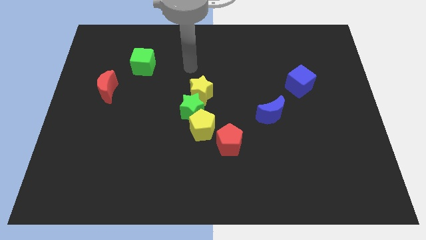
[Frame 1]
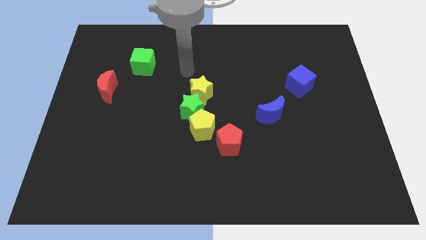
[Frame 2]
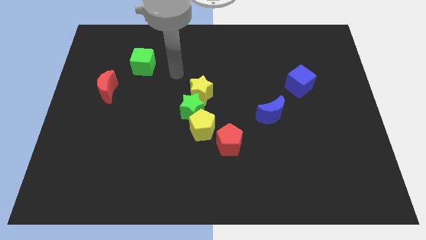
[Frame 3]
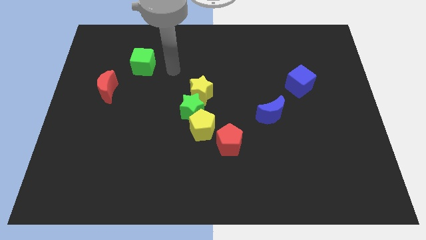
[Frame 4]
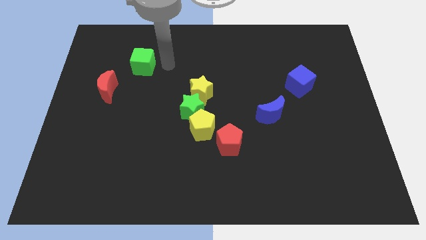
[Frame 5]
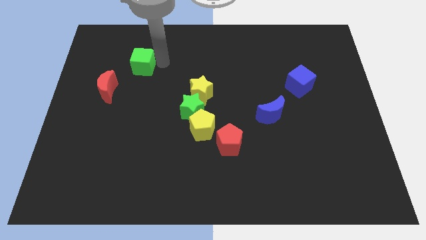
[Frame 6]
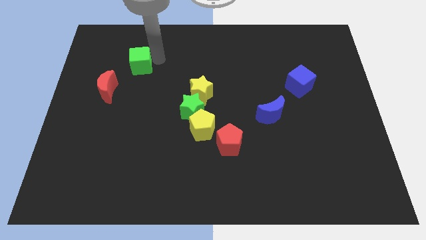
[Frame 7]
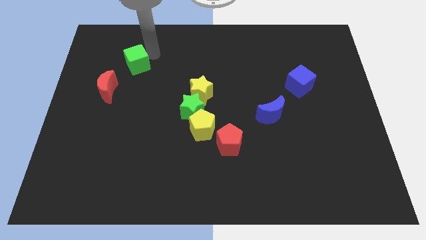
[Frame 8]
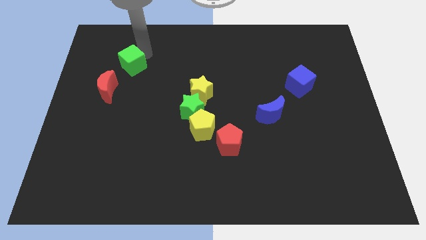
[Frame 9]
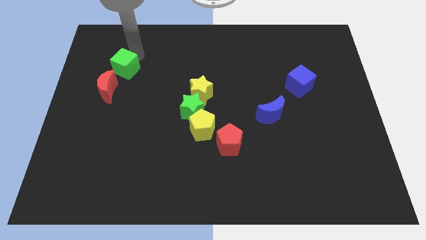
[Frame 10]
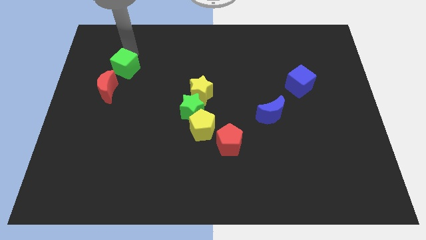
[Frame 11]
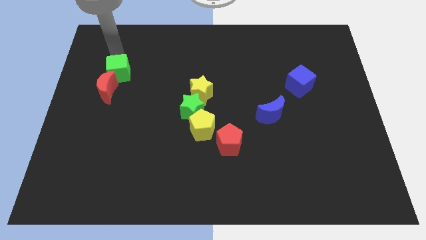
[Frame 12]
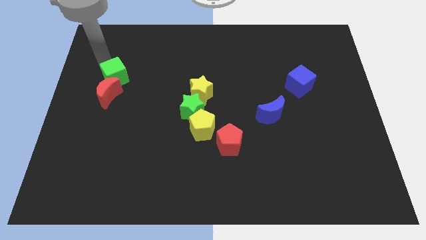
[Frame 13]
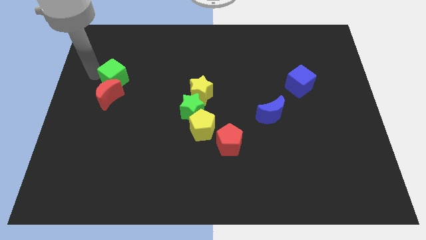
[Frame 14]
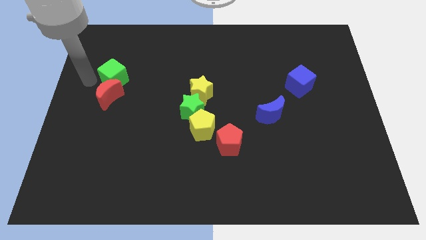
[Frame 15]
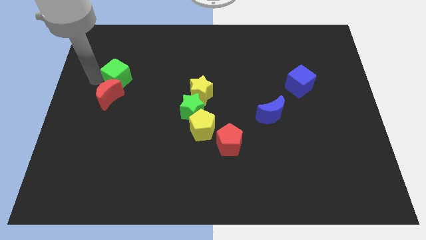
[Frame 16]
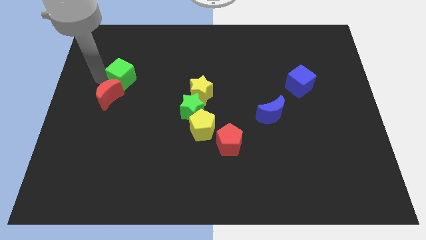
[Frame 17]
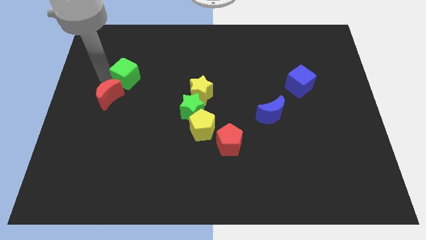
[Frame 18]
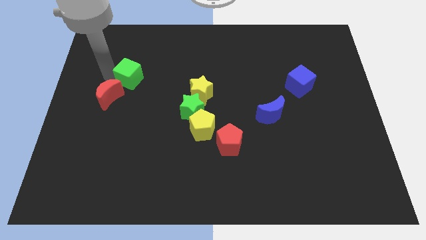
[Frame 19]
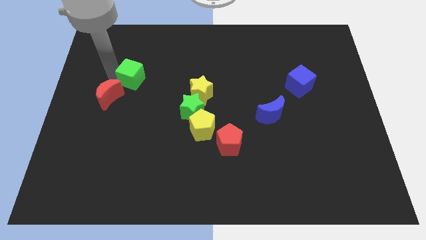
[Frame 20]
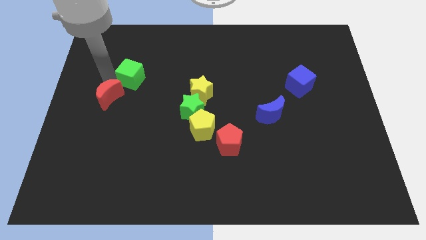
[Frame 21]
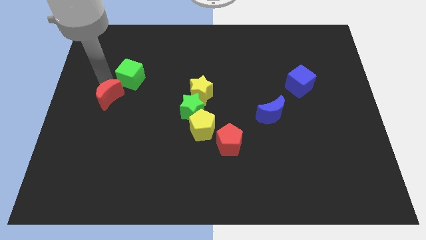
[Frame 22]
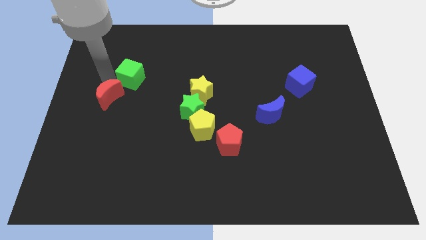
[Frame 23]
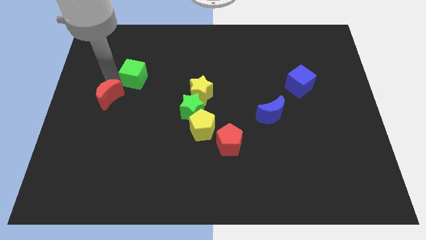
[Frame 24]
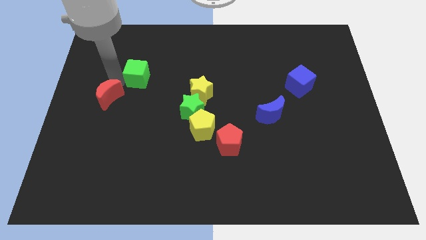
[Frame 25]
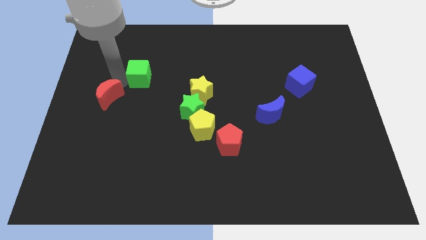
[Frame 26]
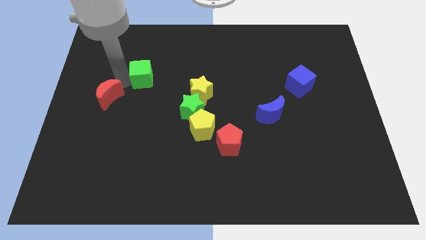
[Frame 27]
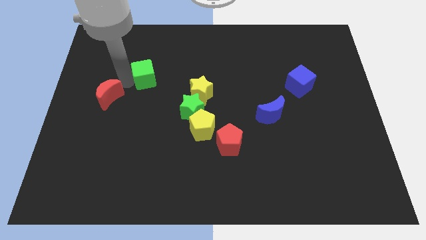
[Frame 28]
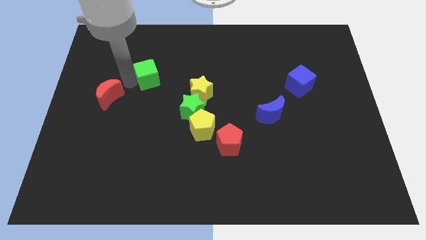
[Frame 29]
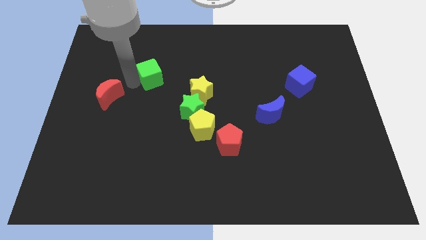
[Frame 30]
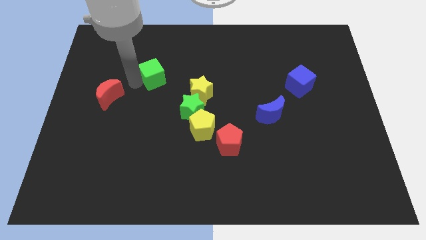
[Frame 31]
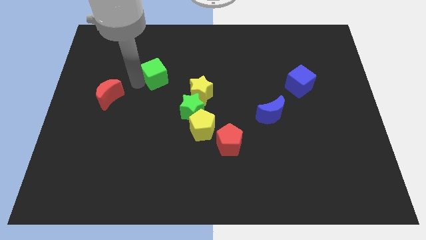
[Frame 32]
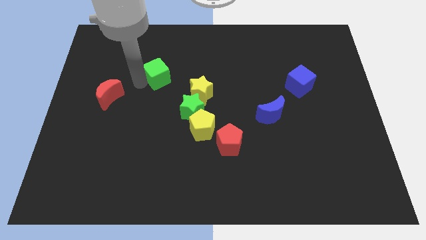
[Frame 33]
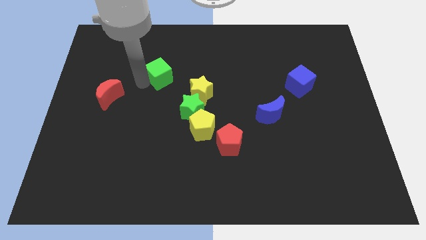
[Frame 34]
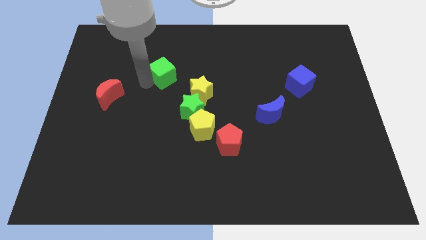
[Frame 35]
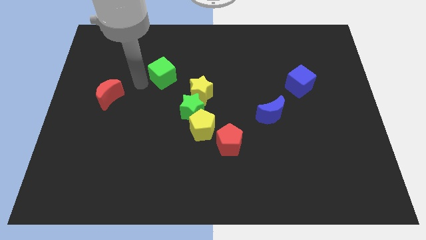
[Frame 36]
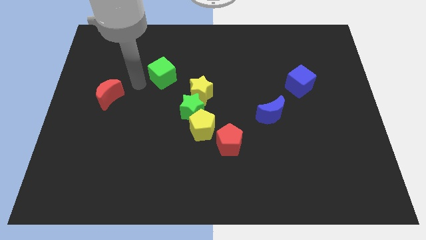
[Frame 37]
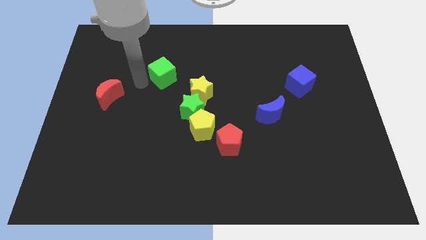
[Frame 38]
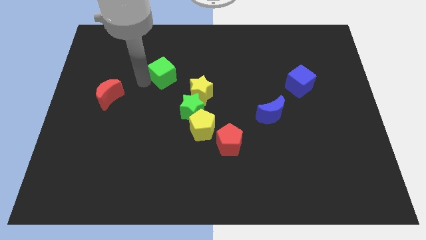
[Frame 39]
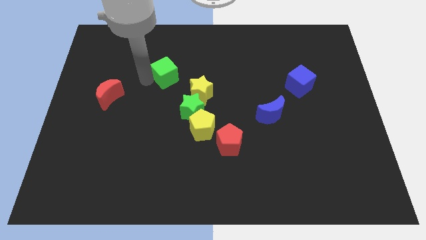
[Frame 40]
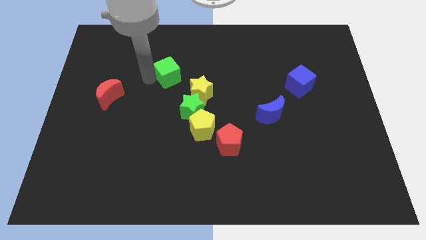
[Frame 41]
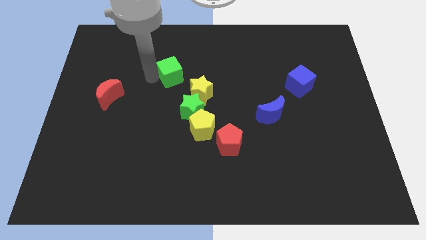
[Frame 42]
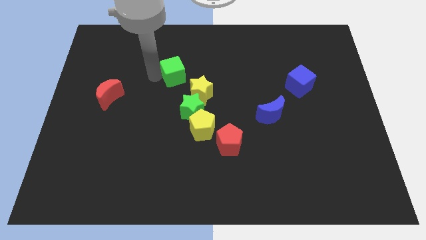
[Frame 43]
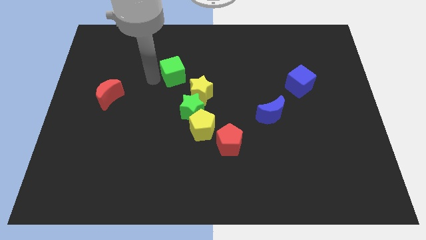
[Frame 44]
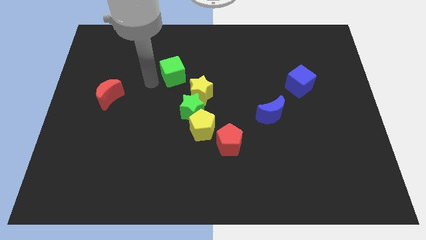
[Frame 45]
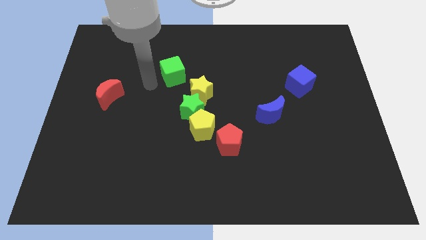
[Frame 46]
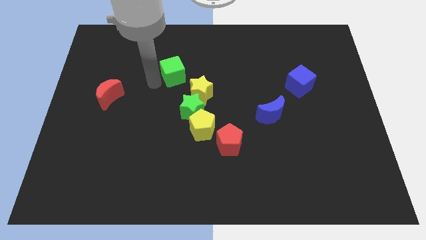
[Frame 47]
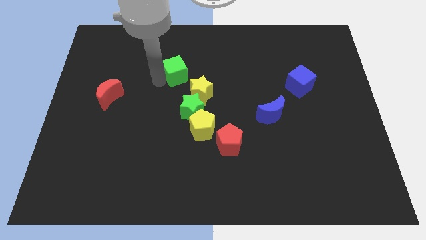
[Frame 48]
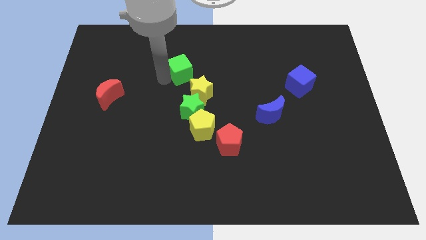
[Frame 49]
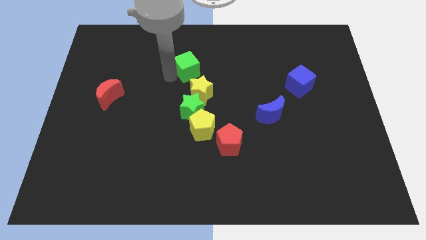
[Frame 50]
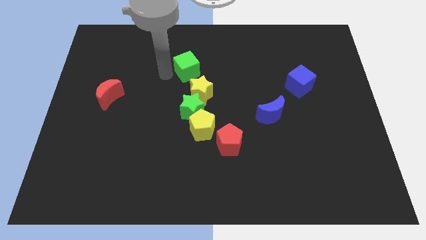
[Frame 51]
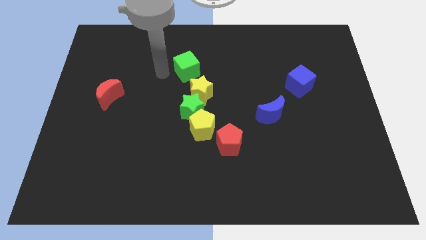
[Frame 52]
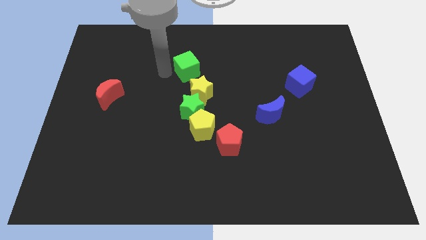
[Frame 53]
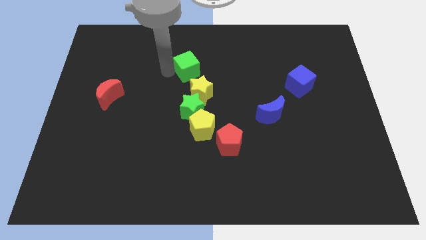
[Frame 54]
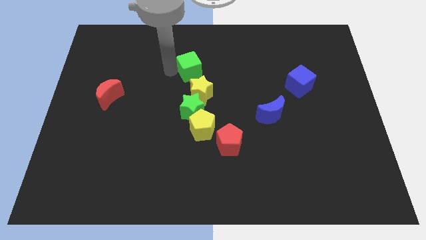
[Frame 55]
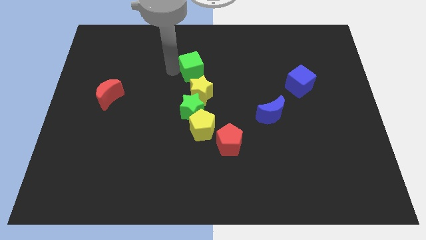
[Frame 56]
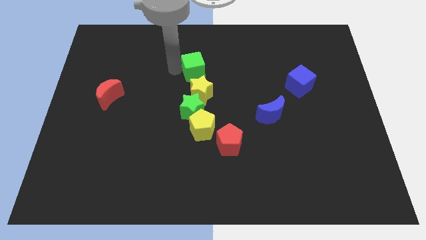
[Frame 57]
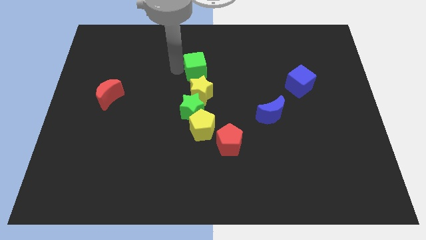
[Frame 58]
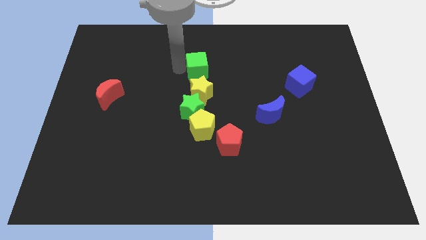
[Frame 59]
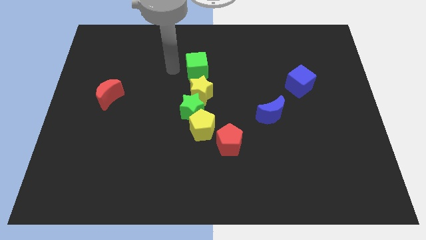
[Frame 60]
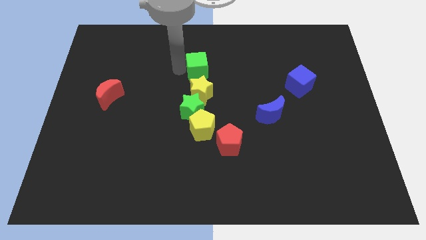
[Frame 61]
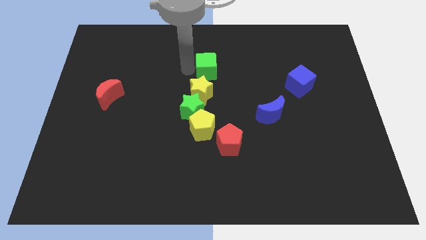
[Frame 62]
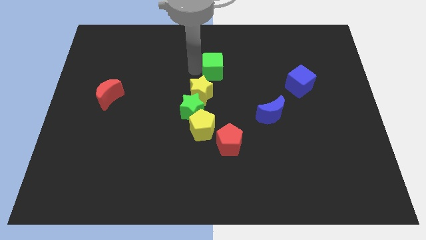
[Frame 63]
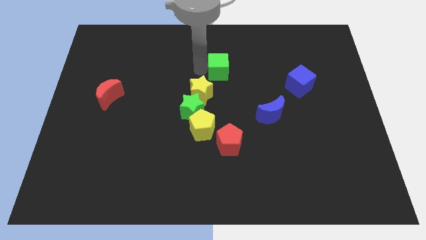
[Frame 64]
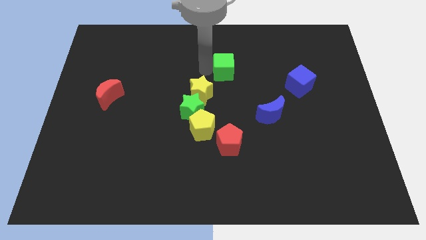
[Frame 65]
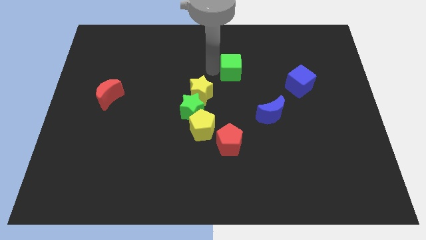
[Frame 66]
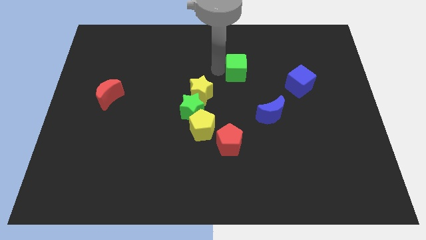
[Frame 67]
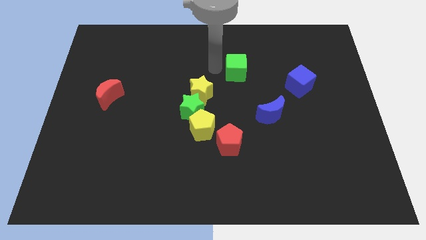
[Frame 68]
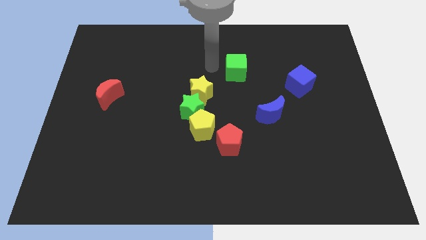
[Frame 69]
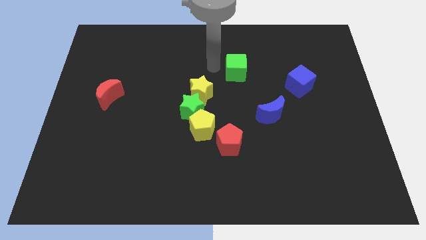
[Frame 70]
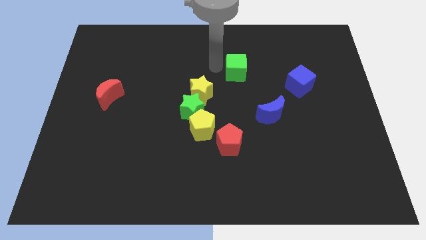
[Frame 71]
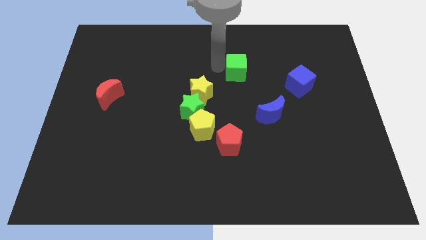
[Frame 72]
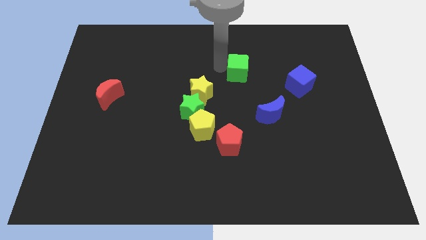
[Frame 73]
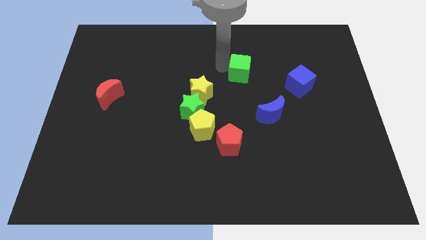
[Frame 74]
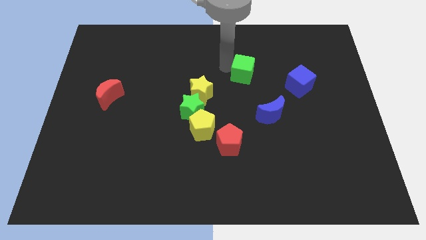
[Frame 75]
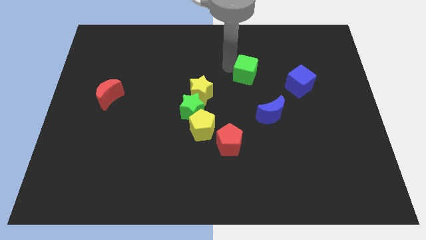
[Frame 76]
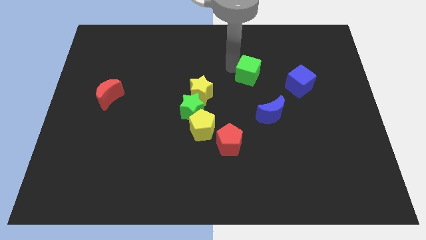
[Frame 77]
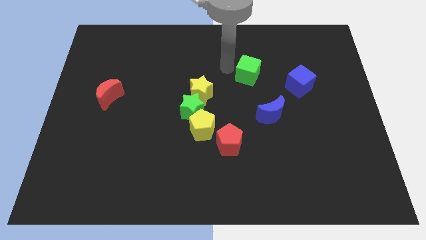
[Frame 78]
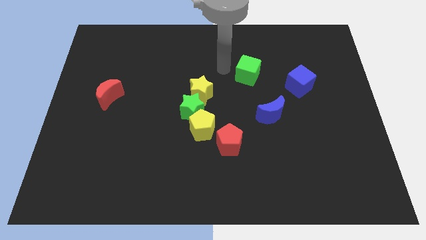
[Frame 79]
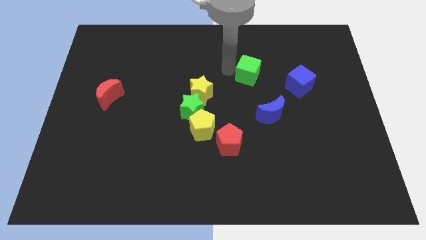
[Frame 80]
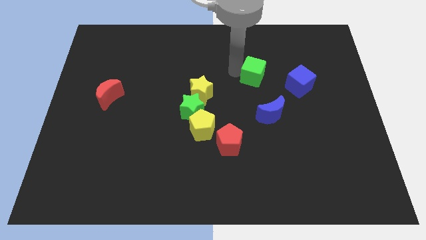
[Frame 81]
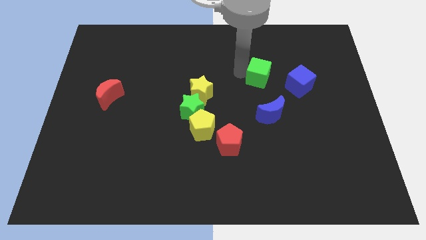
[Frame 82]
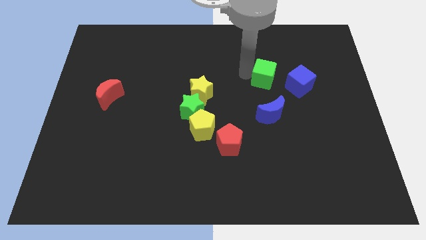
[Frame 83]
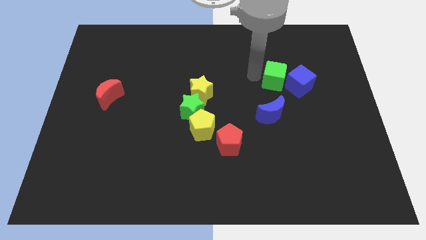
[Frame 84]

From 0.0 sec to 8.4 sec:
move the green cube towards the blue cube
